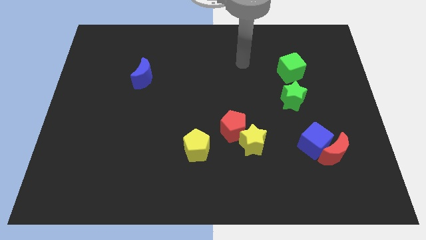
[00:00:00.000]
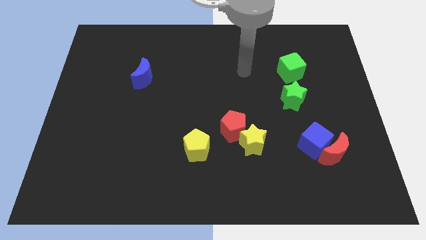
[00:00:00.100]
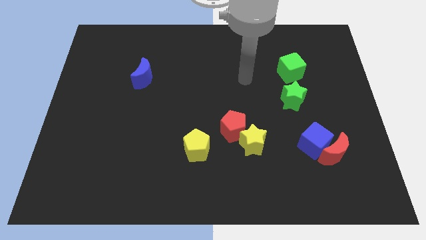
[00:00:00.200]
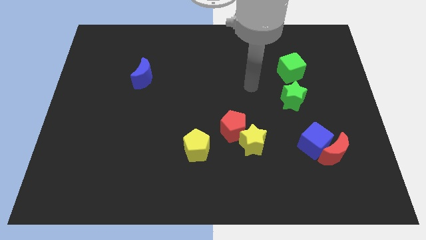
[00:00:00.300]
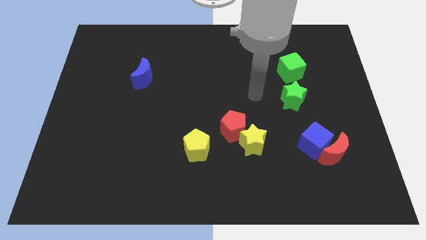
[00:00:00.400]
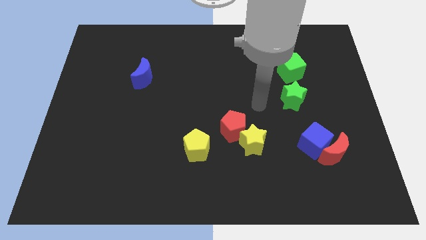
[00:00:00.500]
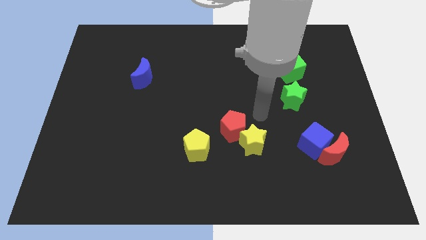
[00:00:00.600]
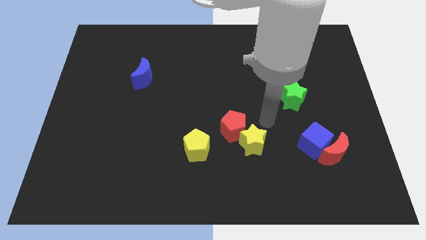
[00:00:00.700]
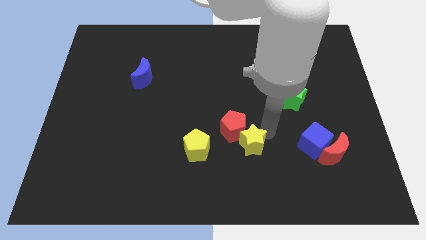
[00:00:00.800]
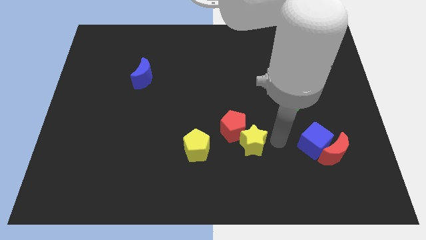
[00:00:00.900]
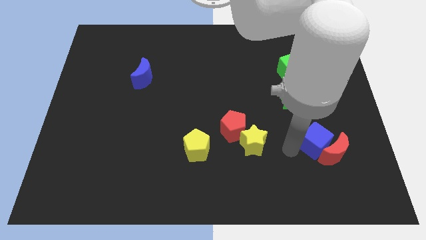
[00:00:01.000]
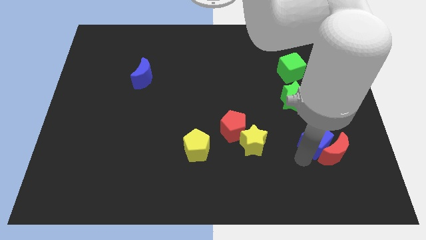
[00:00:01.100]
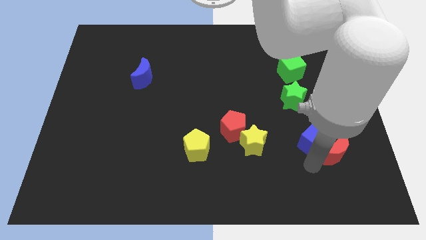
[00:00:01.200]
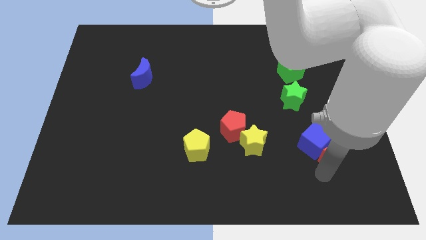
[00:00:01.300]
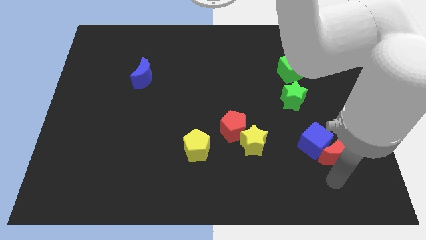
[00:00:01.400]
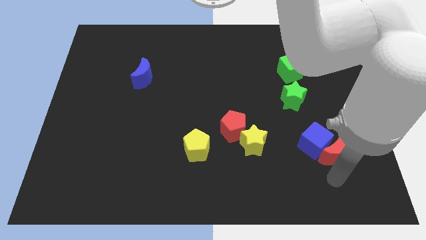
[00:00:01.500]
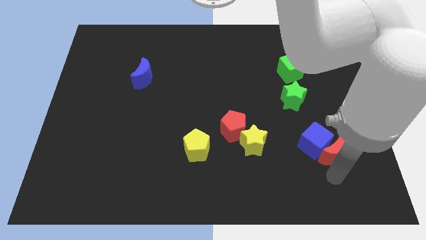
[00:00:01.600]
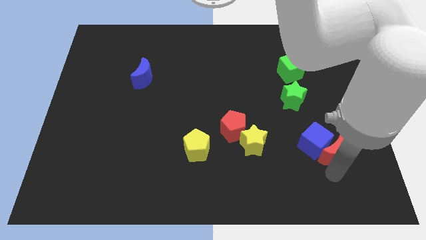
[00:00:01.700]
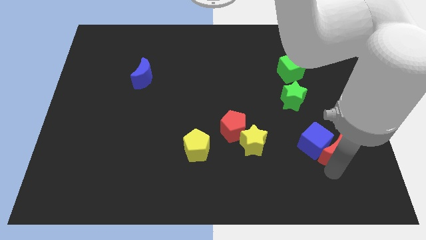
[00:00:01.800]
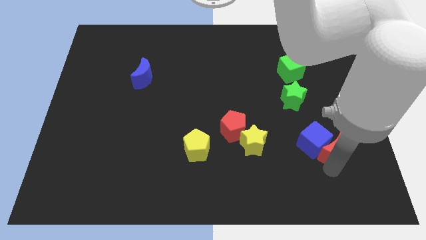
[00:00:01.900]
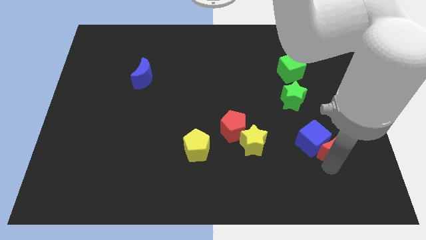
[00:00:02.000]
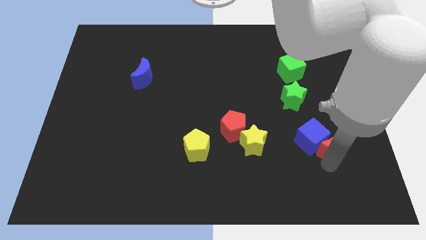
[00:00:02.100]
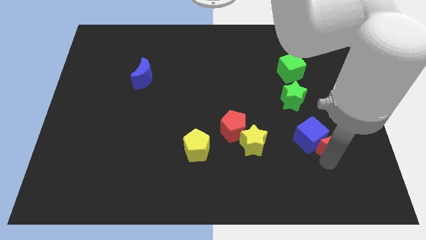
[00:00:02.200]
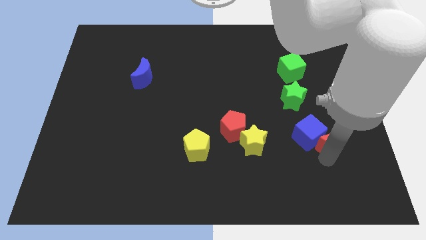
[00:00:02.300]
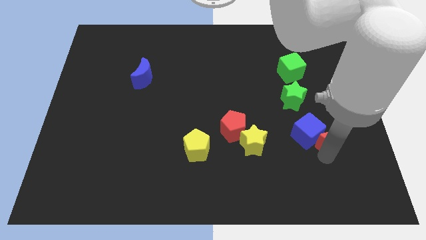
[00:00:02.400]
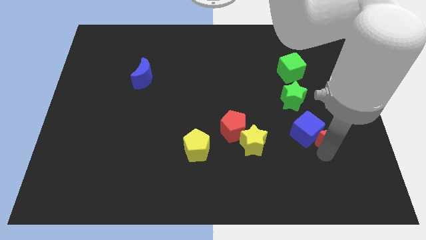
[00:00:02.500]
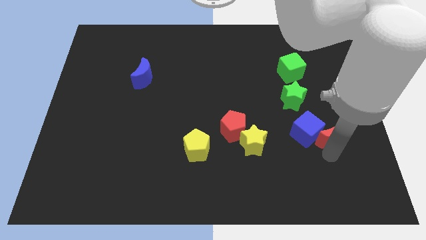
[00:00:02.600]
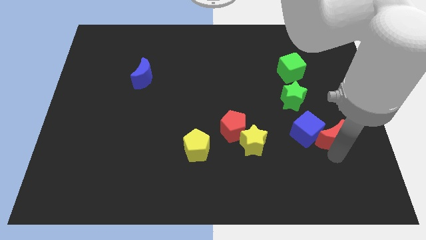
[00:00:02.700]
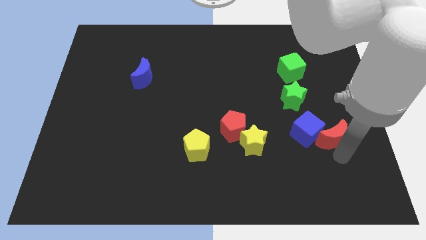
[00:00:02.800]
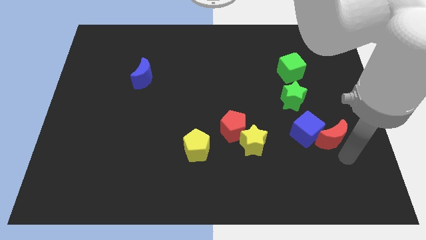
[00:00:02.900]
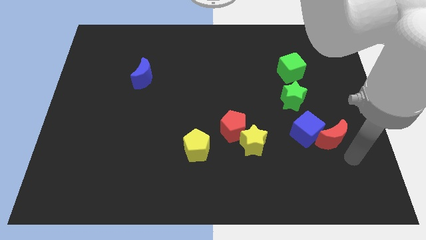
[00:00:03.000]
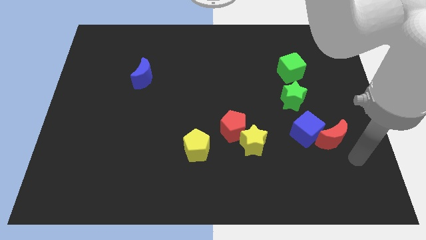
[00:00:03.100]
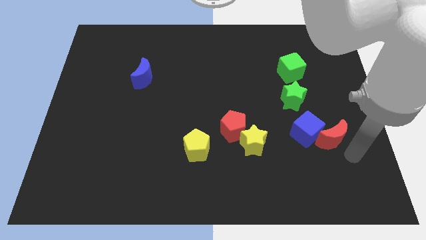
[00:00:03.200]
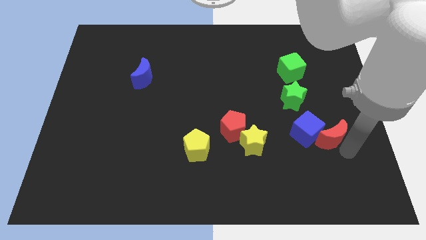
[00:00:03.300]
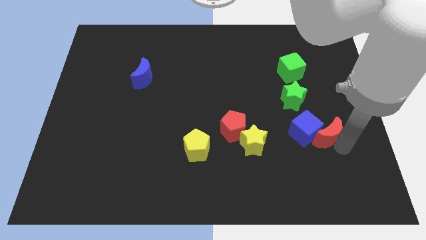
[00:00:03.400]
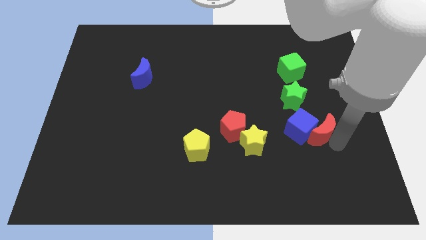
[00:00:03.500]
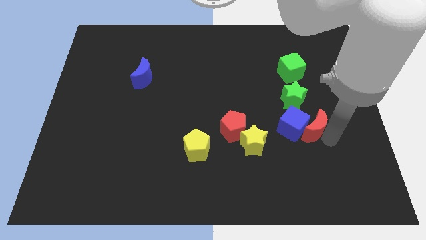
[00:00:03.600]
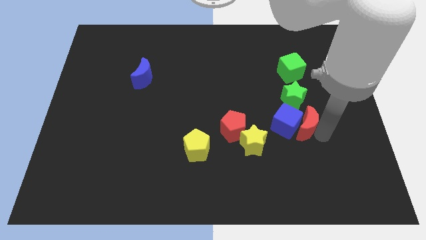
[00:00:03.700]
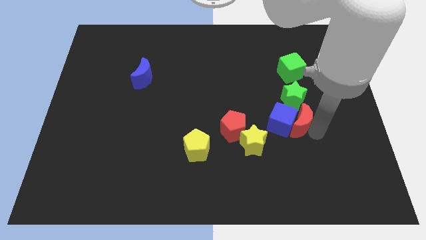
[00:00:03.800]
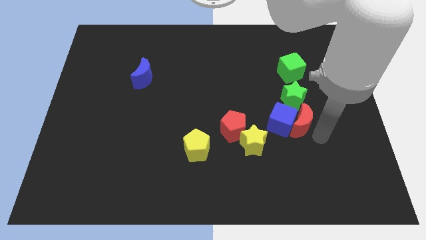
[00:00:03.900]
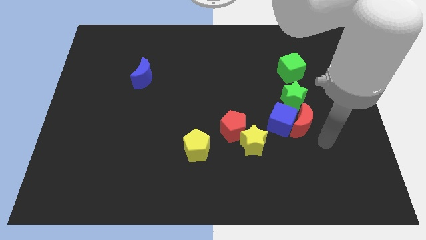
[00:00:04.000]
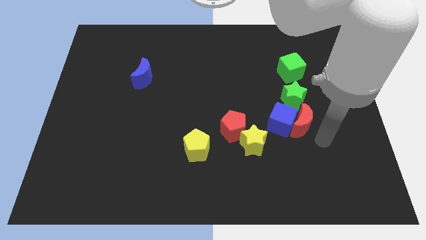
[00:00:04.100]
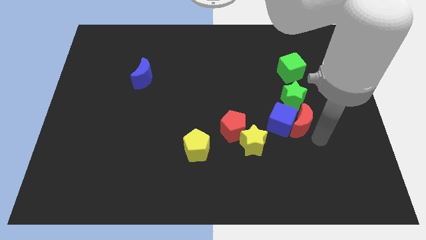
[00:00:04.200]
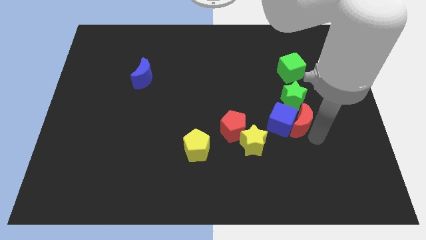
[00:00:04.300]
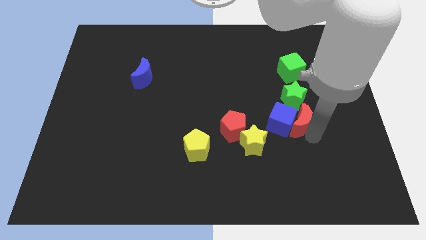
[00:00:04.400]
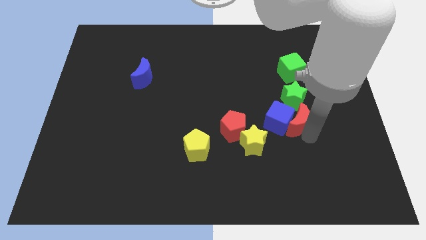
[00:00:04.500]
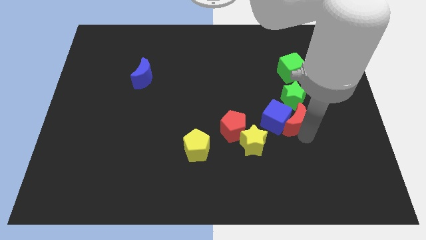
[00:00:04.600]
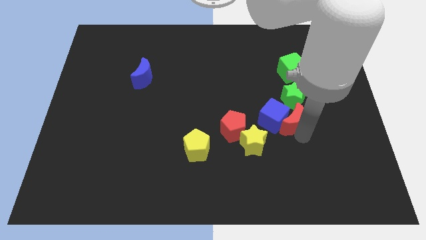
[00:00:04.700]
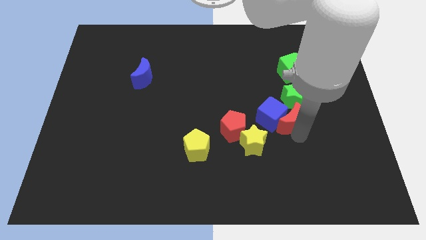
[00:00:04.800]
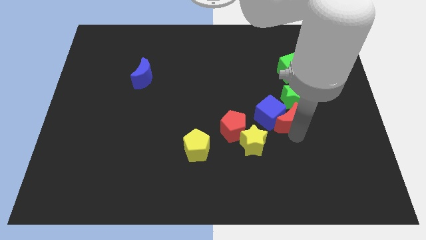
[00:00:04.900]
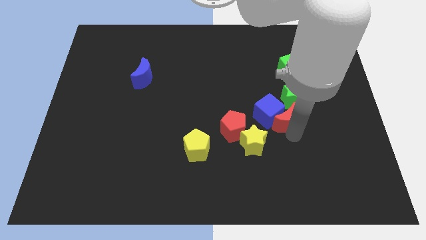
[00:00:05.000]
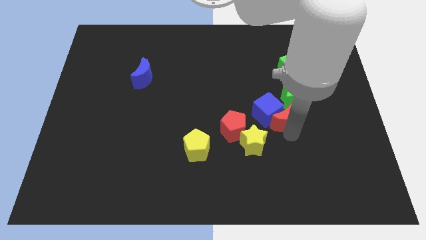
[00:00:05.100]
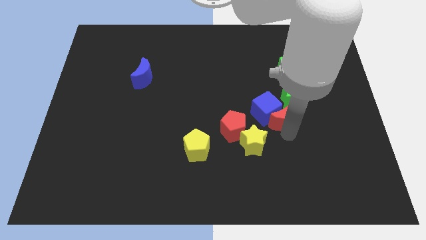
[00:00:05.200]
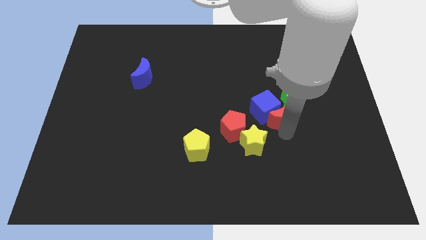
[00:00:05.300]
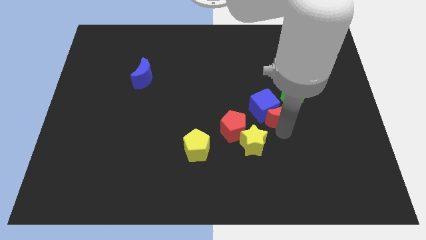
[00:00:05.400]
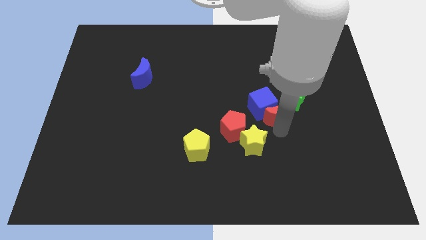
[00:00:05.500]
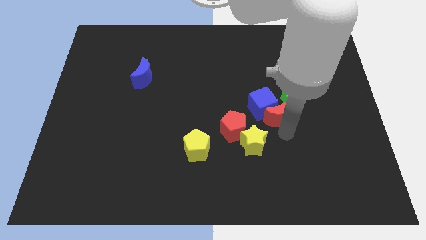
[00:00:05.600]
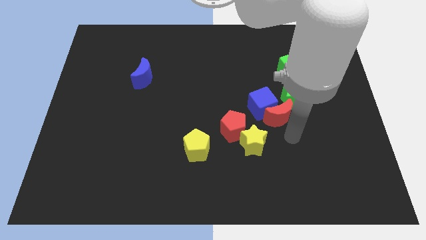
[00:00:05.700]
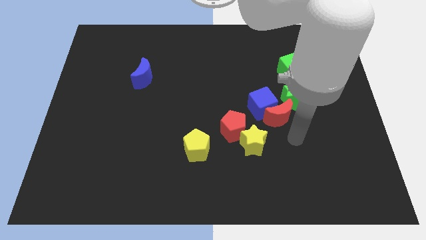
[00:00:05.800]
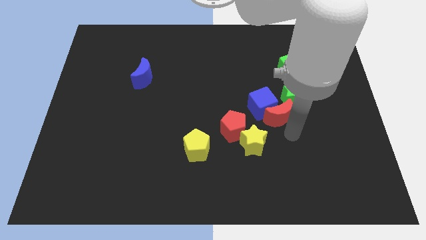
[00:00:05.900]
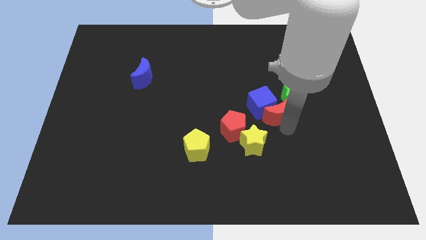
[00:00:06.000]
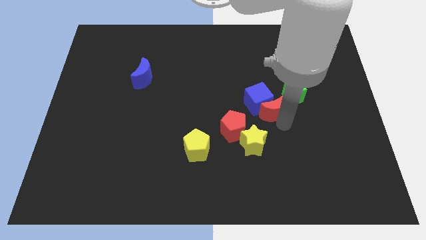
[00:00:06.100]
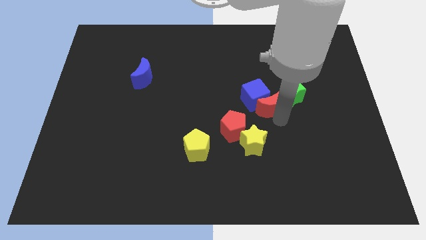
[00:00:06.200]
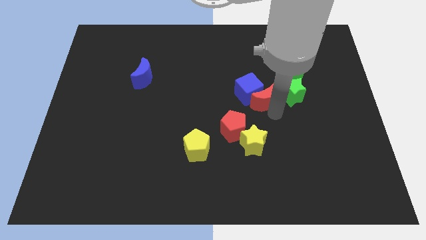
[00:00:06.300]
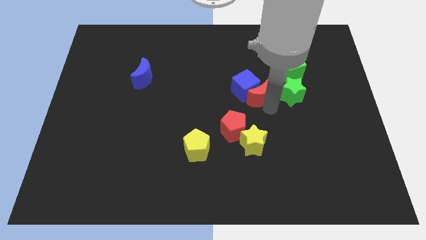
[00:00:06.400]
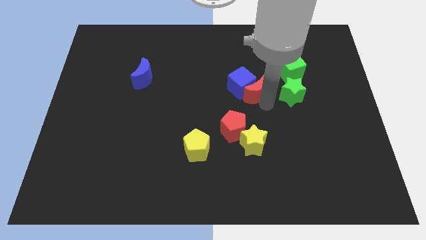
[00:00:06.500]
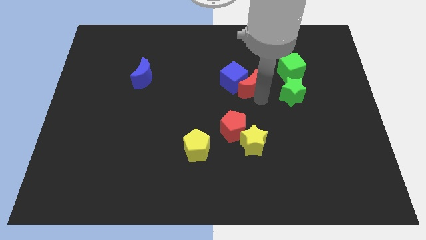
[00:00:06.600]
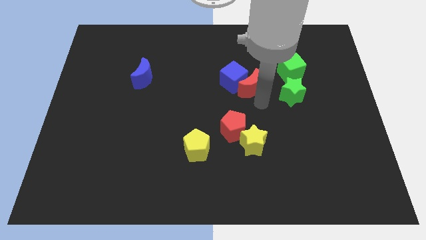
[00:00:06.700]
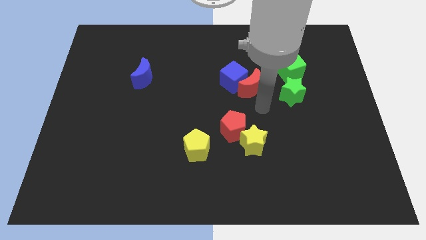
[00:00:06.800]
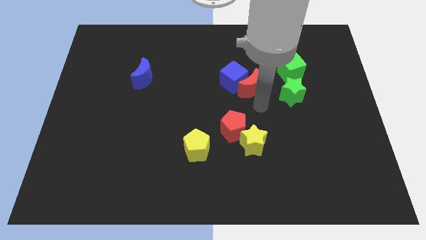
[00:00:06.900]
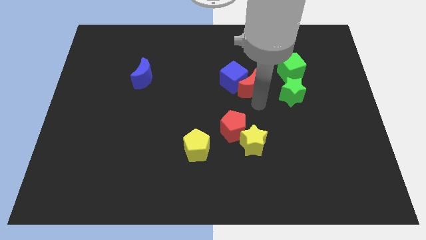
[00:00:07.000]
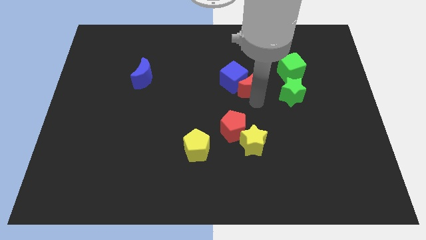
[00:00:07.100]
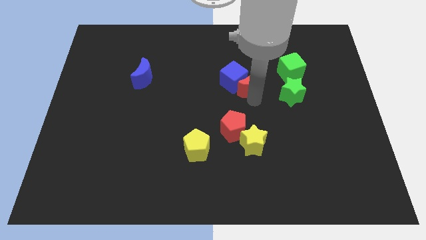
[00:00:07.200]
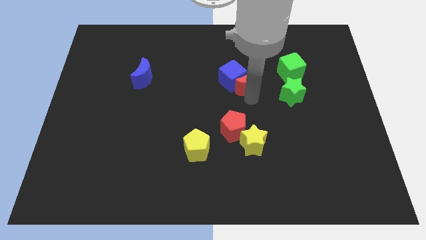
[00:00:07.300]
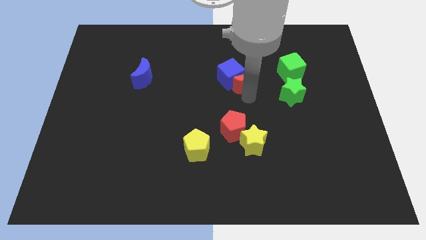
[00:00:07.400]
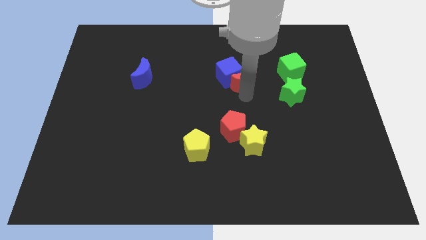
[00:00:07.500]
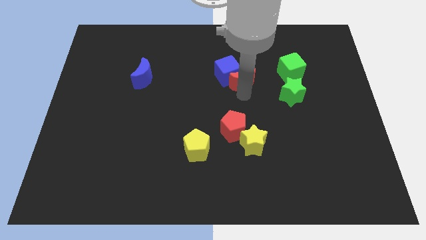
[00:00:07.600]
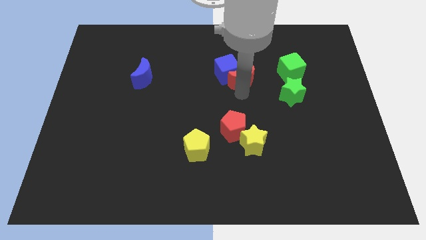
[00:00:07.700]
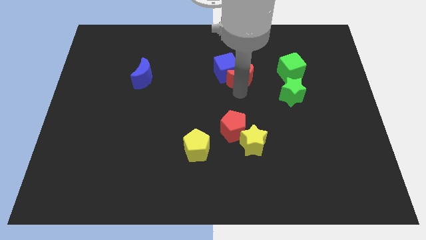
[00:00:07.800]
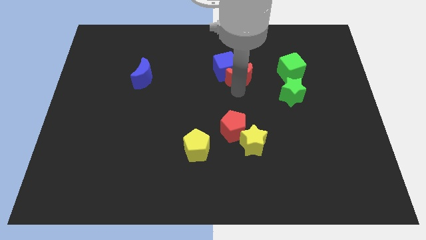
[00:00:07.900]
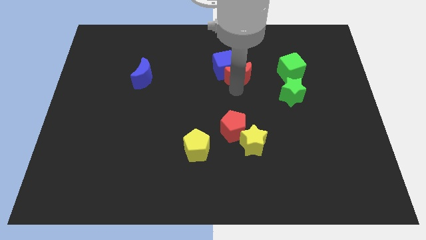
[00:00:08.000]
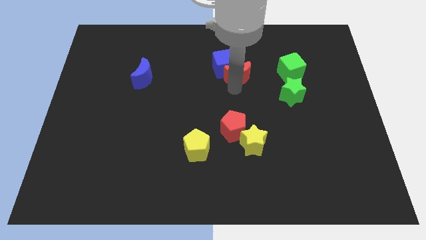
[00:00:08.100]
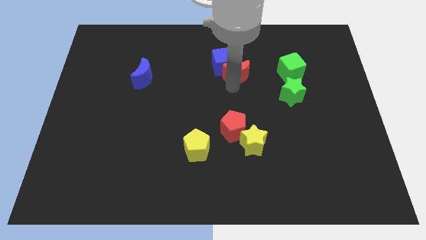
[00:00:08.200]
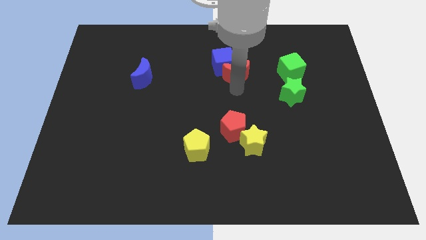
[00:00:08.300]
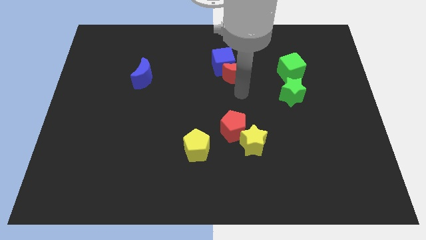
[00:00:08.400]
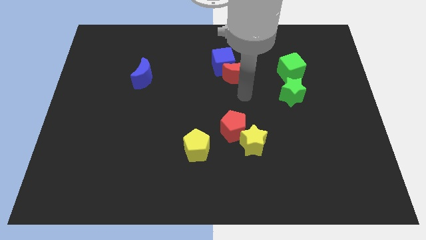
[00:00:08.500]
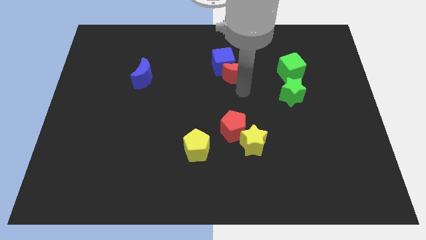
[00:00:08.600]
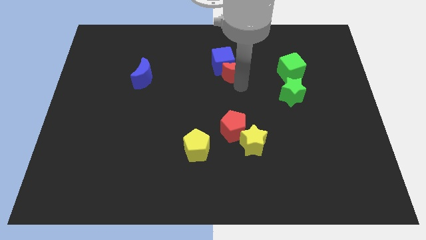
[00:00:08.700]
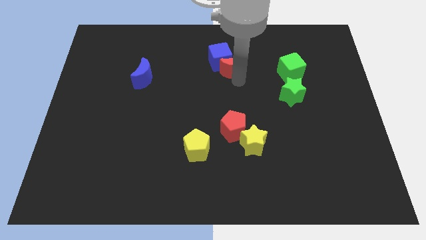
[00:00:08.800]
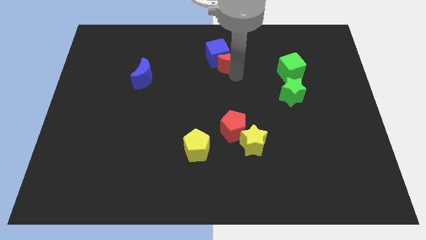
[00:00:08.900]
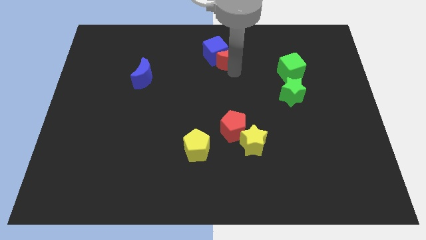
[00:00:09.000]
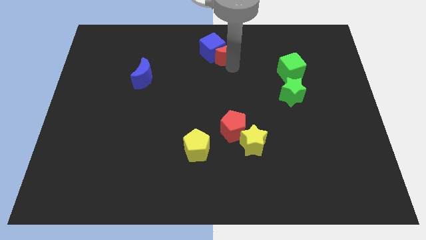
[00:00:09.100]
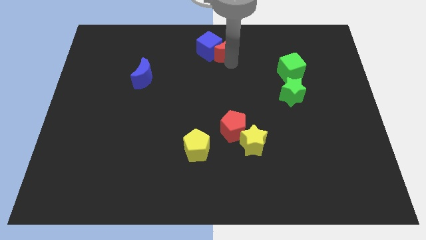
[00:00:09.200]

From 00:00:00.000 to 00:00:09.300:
move the red moon to the top
